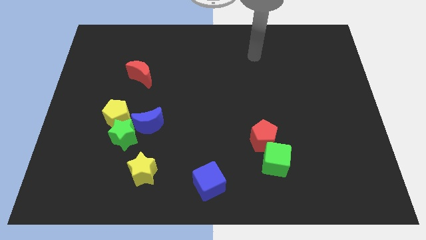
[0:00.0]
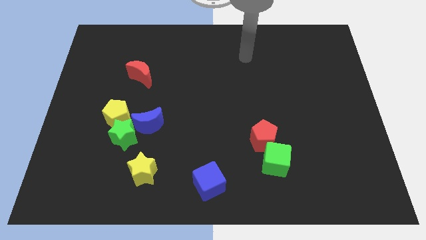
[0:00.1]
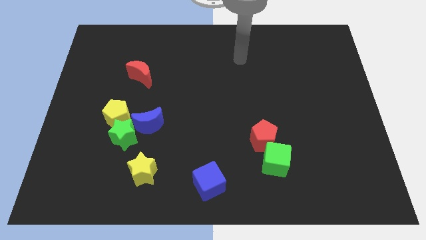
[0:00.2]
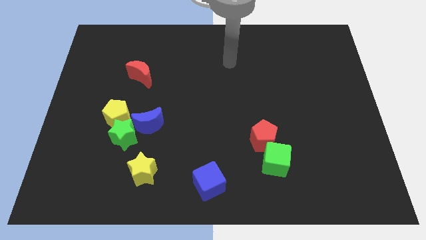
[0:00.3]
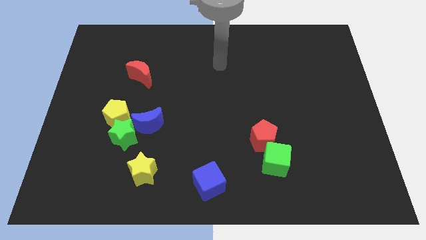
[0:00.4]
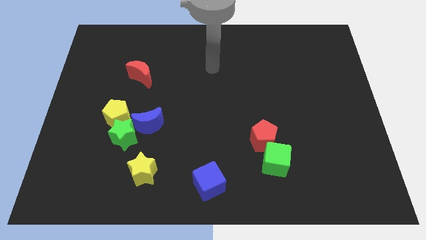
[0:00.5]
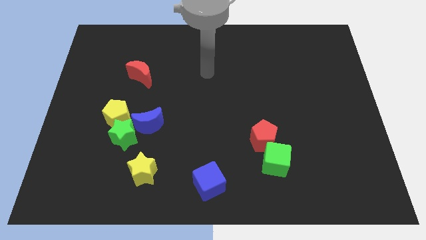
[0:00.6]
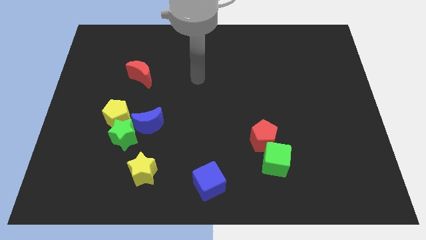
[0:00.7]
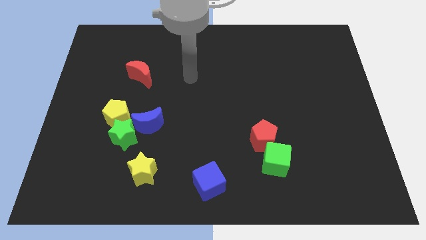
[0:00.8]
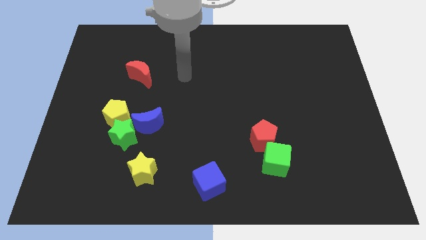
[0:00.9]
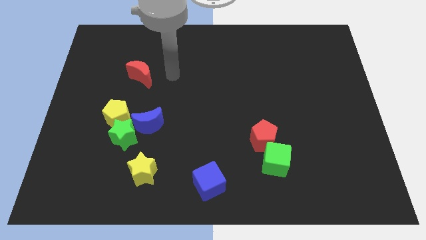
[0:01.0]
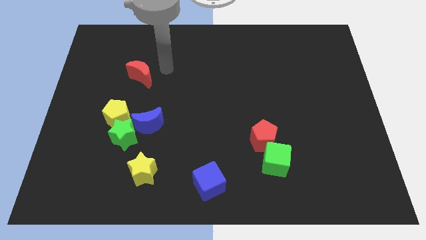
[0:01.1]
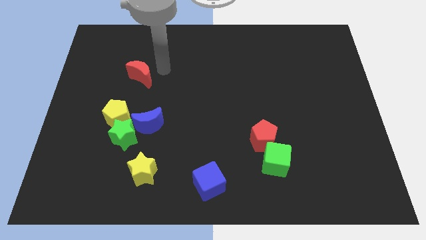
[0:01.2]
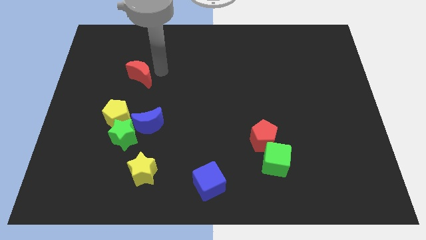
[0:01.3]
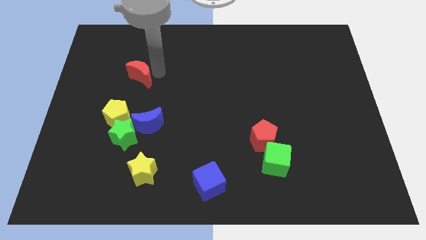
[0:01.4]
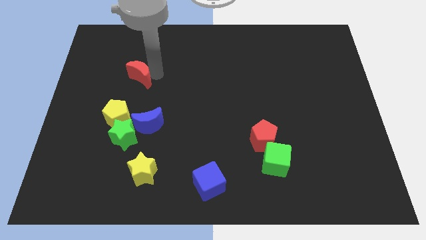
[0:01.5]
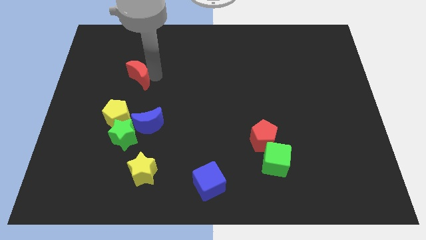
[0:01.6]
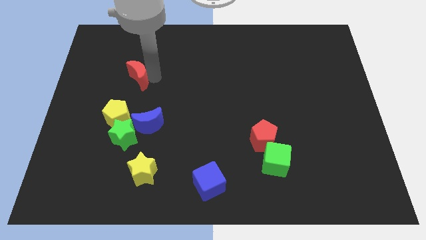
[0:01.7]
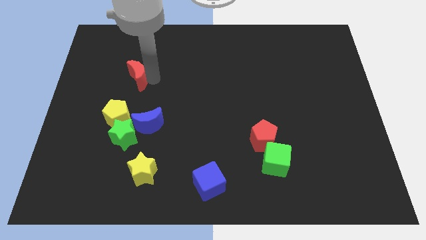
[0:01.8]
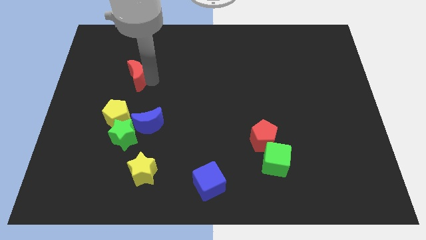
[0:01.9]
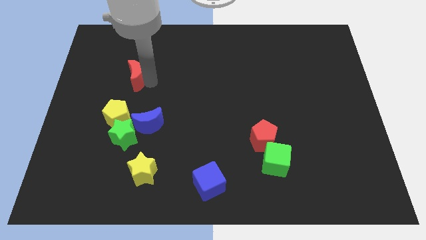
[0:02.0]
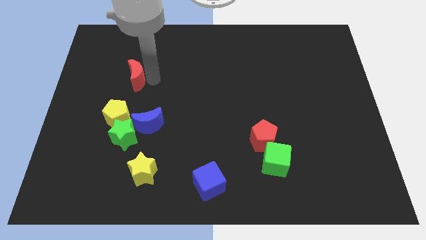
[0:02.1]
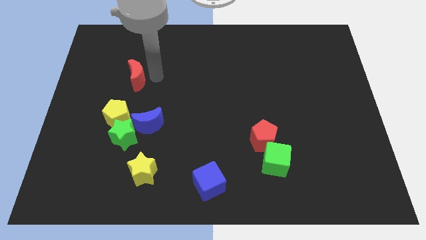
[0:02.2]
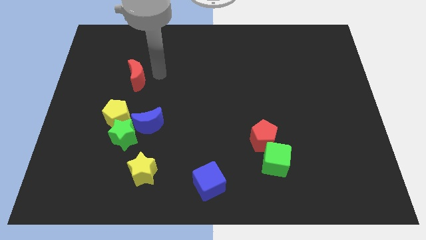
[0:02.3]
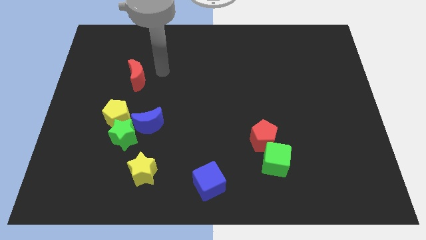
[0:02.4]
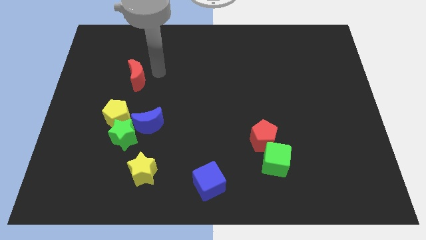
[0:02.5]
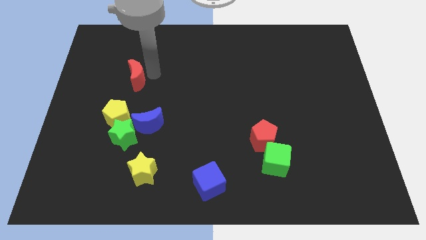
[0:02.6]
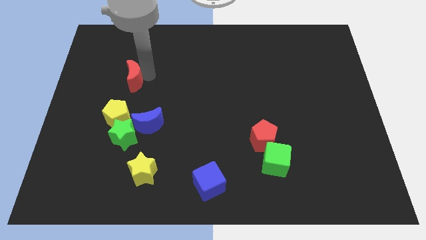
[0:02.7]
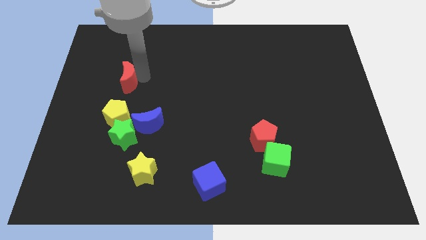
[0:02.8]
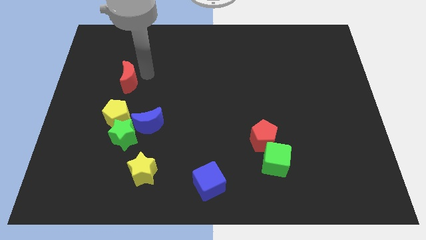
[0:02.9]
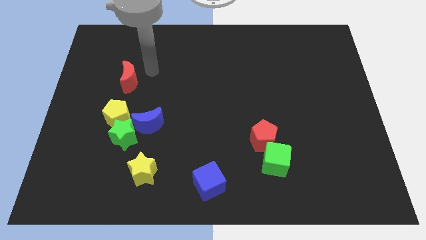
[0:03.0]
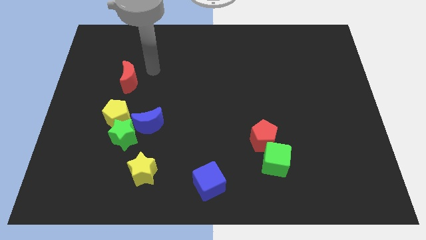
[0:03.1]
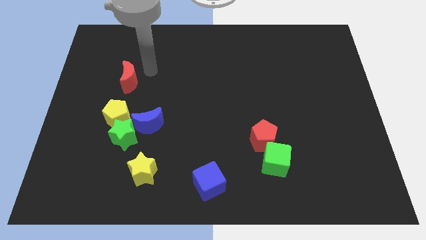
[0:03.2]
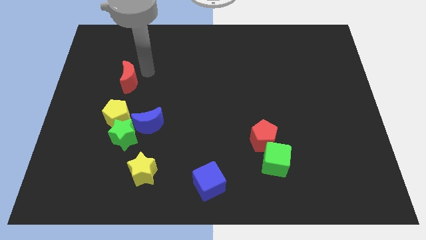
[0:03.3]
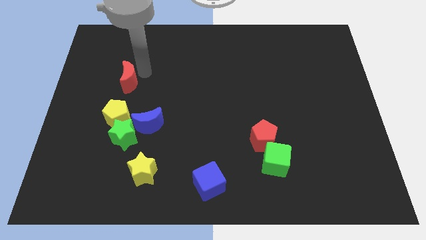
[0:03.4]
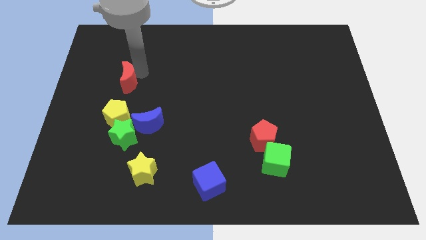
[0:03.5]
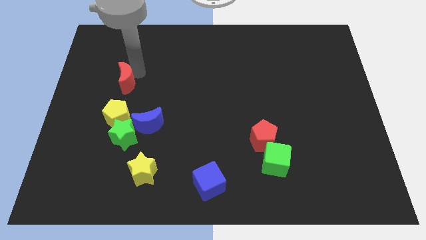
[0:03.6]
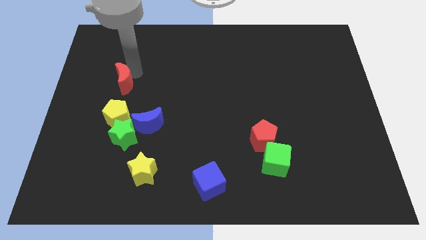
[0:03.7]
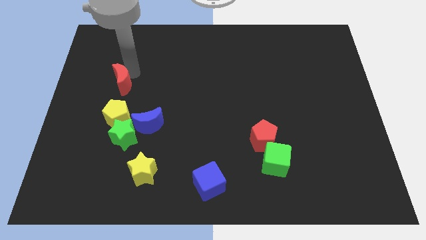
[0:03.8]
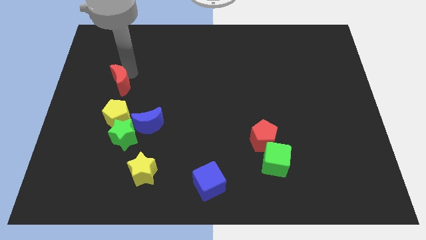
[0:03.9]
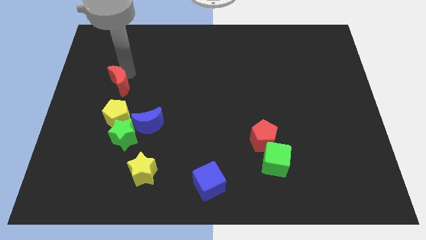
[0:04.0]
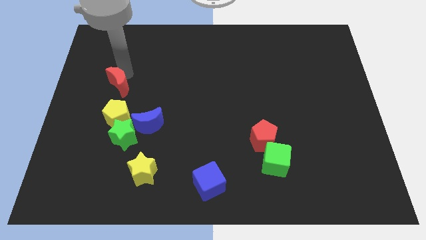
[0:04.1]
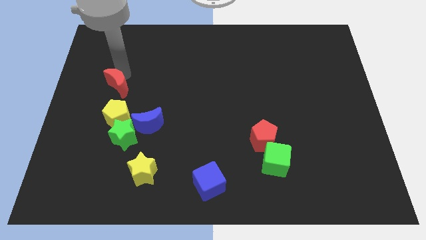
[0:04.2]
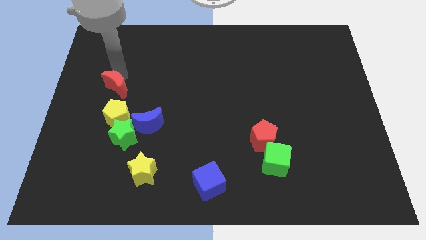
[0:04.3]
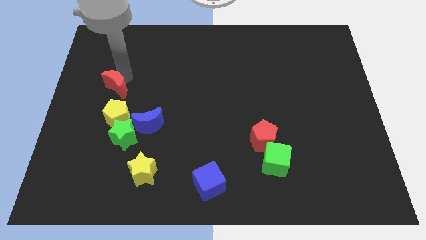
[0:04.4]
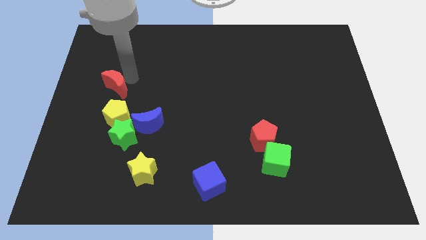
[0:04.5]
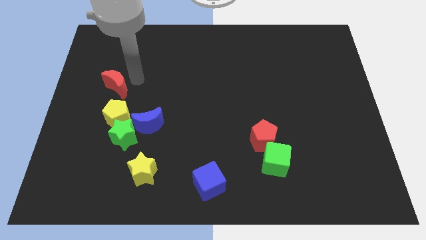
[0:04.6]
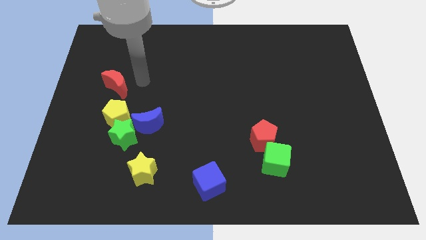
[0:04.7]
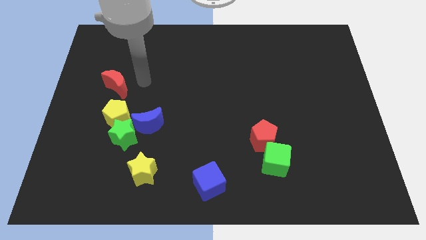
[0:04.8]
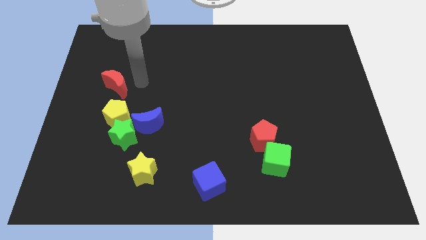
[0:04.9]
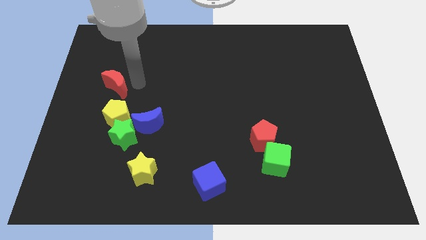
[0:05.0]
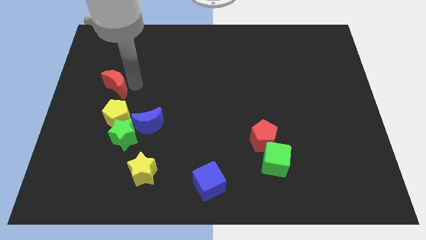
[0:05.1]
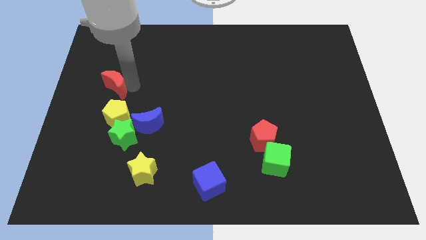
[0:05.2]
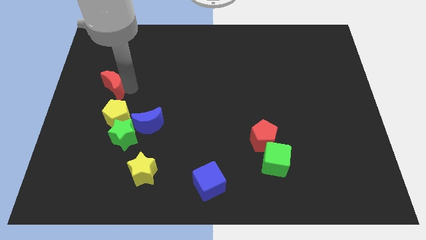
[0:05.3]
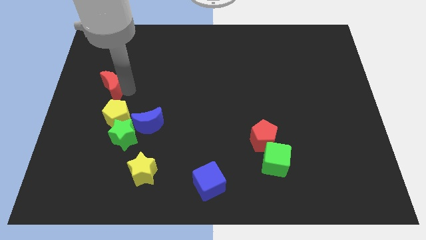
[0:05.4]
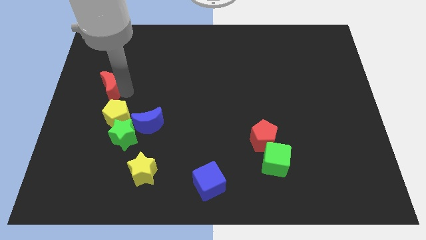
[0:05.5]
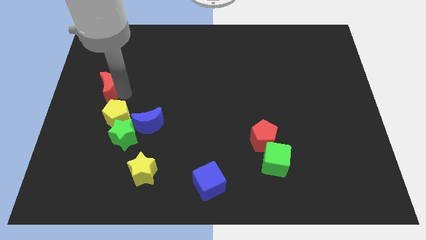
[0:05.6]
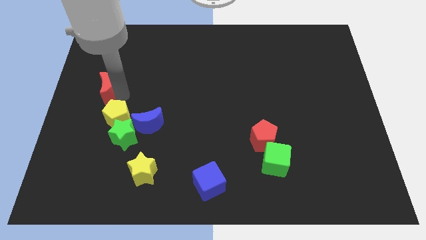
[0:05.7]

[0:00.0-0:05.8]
slide the red moon to the left side of the board
